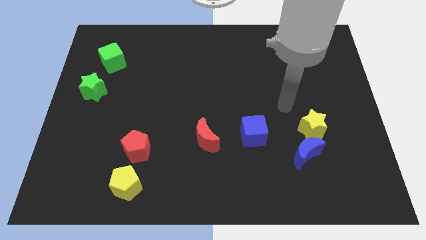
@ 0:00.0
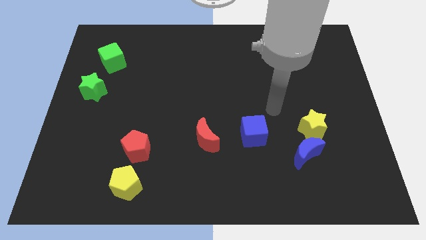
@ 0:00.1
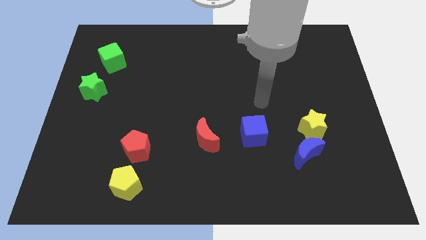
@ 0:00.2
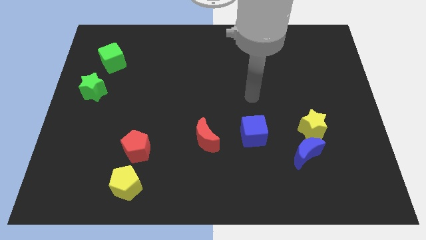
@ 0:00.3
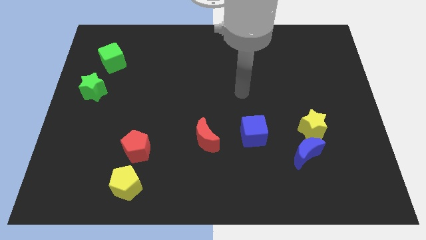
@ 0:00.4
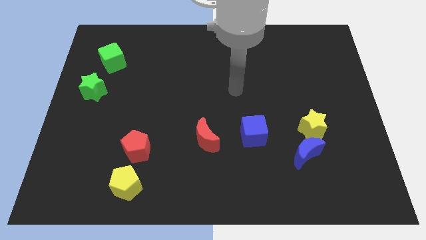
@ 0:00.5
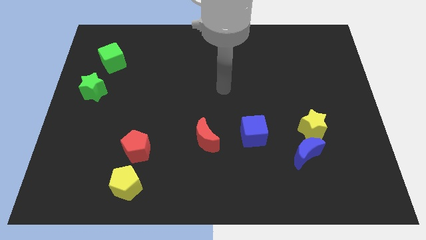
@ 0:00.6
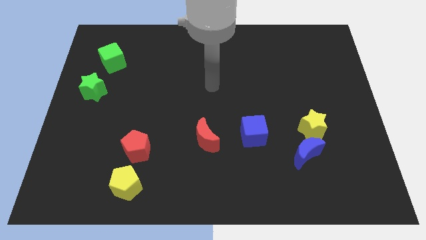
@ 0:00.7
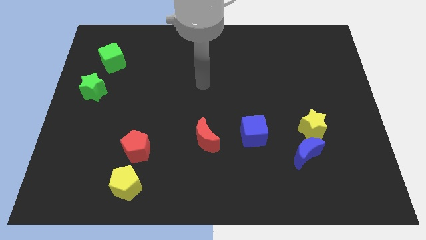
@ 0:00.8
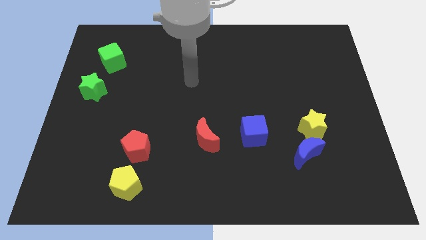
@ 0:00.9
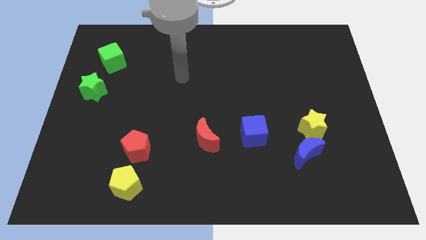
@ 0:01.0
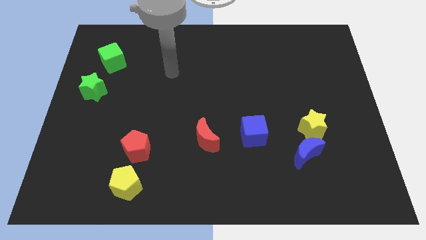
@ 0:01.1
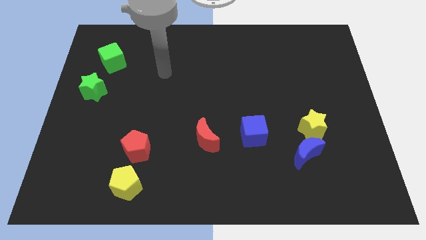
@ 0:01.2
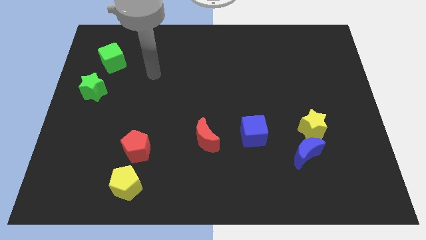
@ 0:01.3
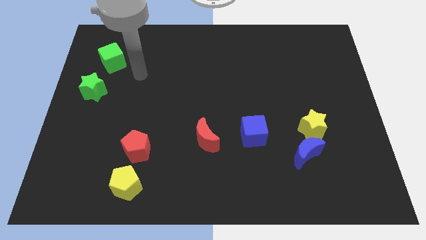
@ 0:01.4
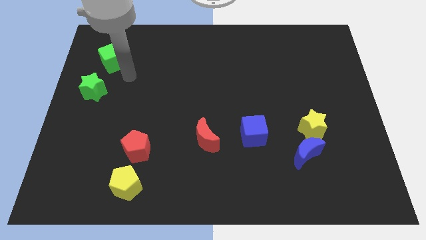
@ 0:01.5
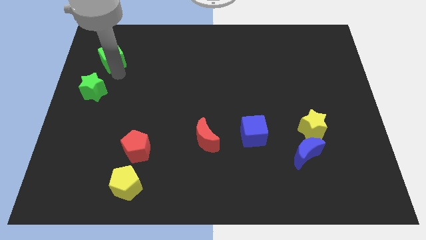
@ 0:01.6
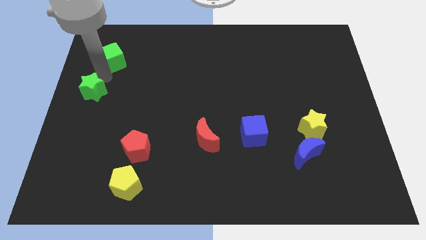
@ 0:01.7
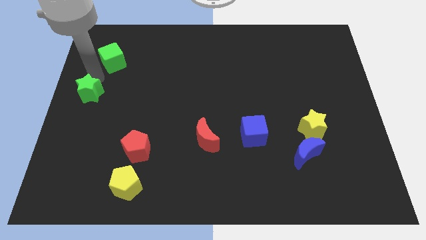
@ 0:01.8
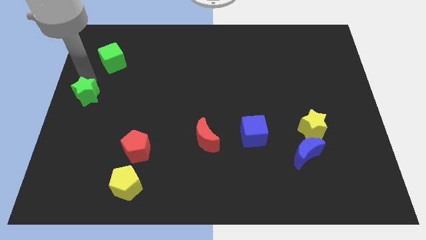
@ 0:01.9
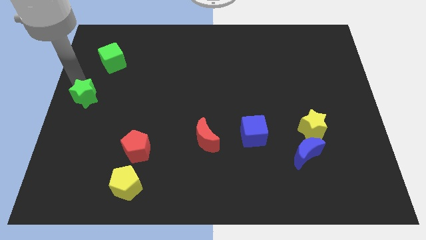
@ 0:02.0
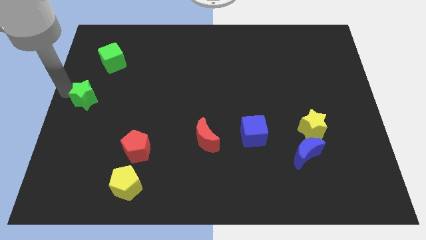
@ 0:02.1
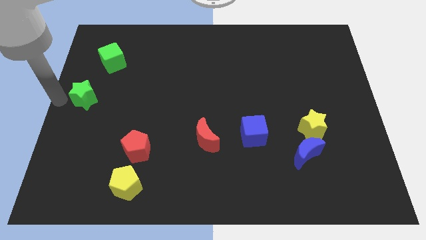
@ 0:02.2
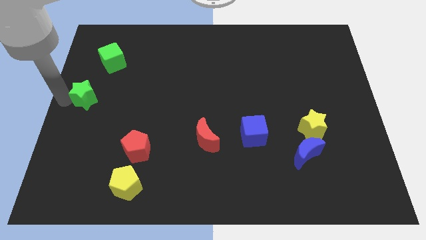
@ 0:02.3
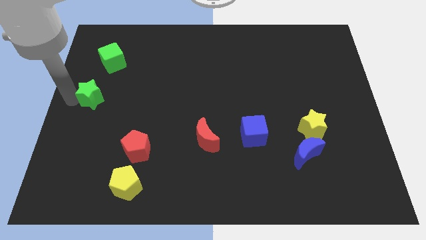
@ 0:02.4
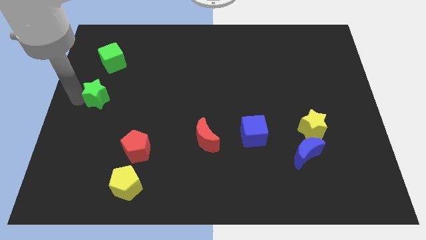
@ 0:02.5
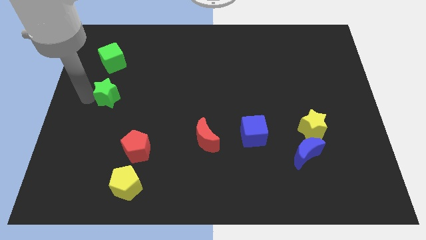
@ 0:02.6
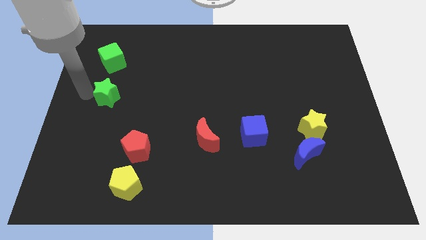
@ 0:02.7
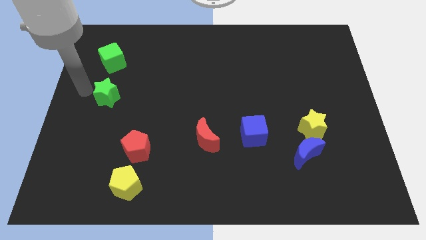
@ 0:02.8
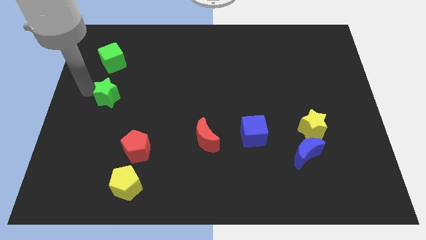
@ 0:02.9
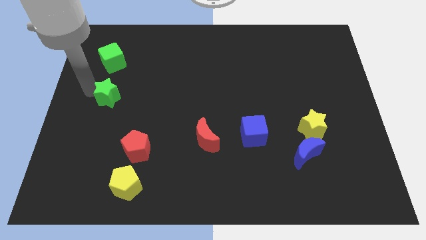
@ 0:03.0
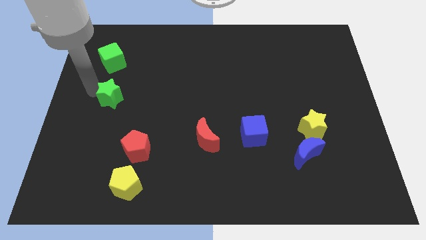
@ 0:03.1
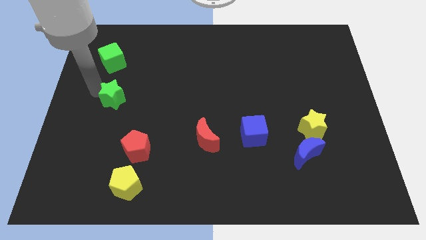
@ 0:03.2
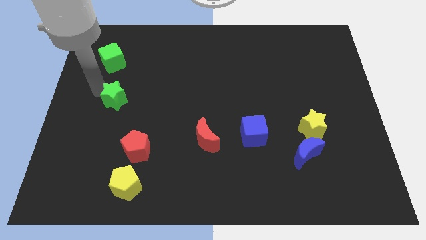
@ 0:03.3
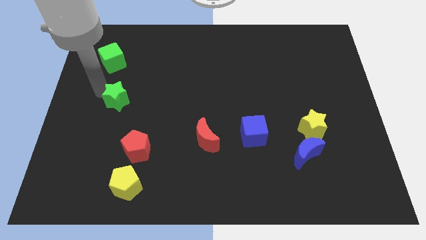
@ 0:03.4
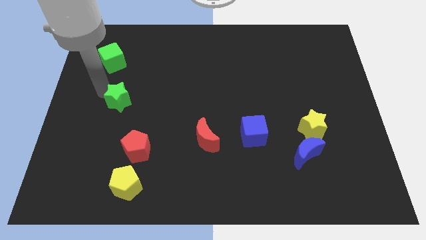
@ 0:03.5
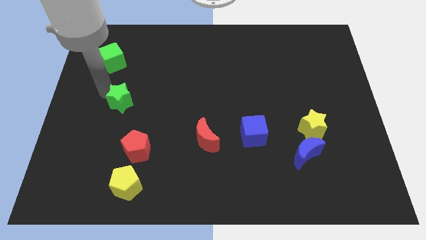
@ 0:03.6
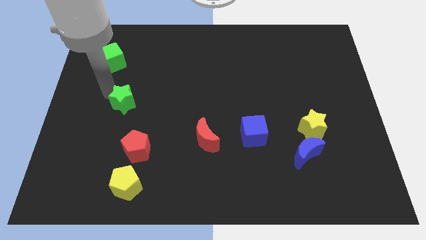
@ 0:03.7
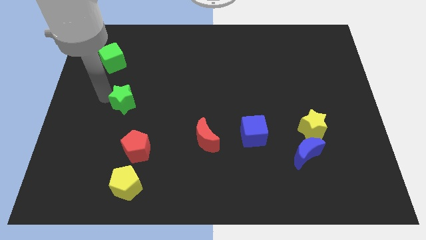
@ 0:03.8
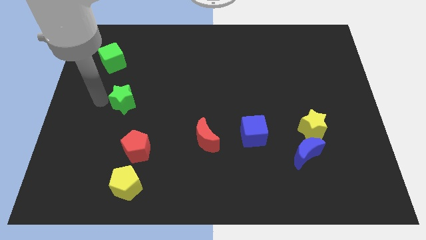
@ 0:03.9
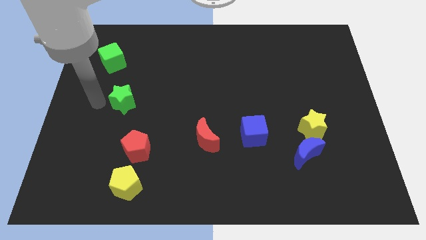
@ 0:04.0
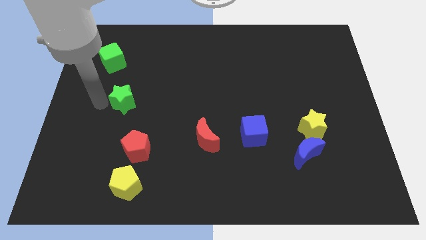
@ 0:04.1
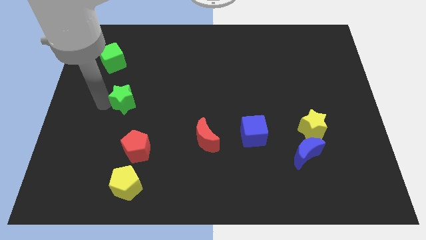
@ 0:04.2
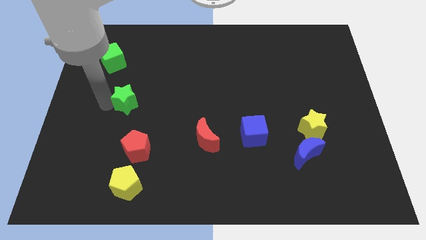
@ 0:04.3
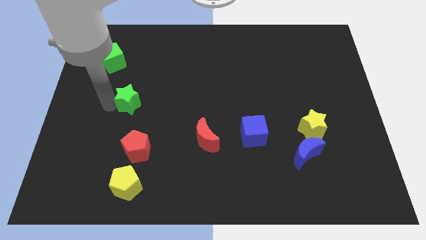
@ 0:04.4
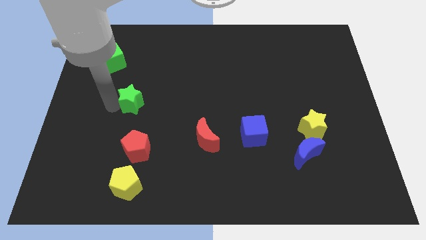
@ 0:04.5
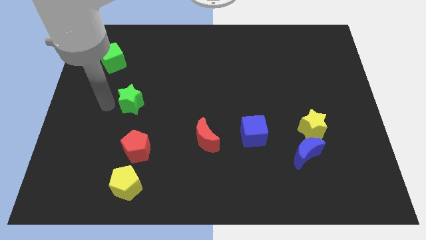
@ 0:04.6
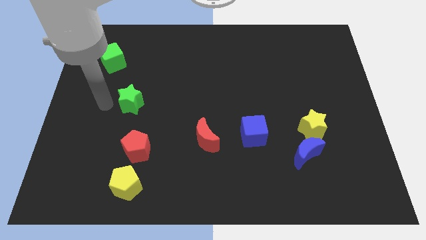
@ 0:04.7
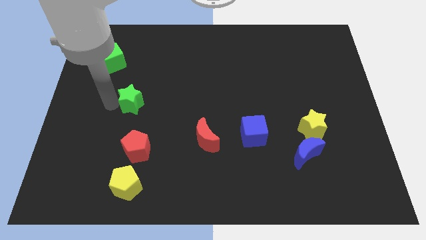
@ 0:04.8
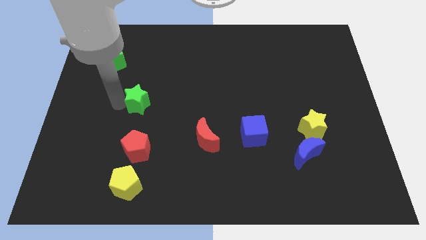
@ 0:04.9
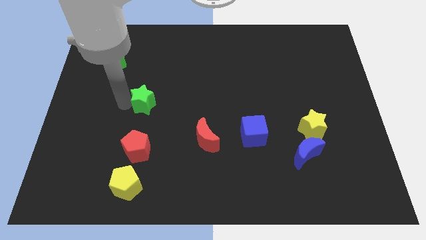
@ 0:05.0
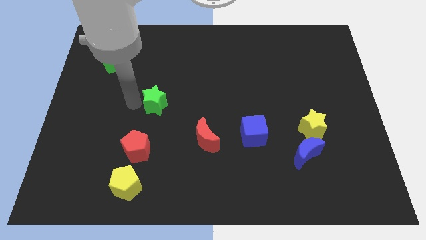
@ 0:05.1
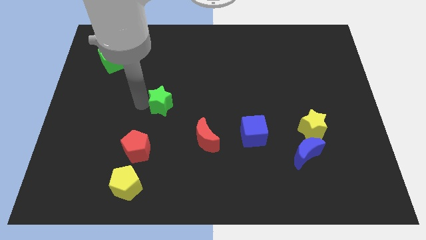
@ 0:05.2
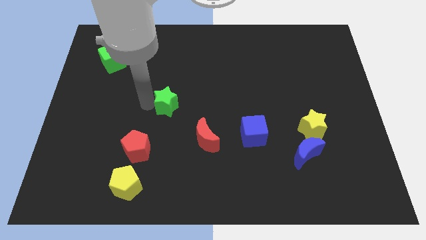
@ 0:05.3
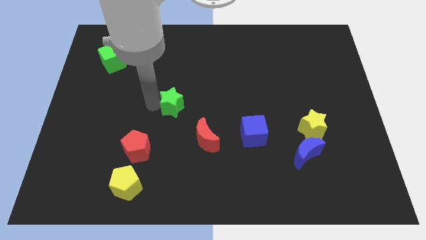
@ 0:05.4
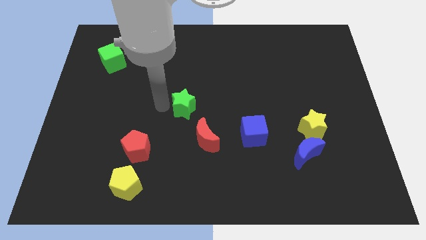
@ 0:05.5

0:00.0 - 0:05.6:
push the green star above the red moon

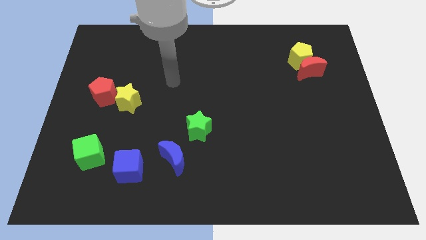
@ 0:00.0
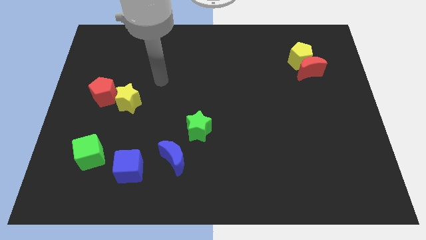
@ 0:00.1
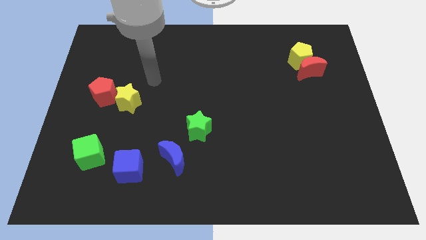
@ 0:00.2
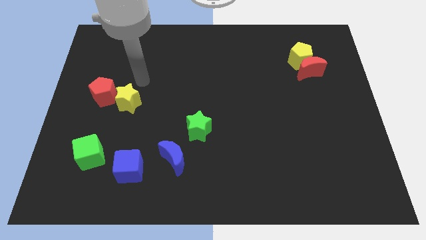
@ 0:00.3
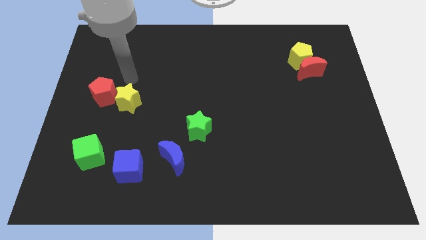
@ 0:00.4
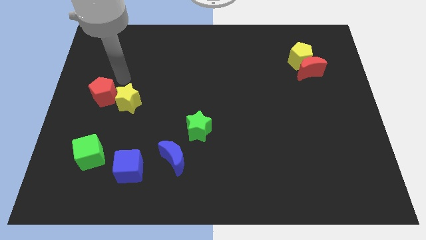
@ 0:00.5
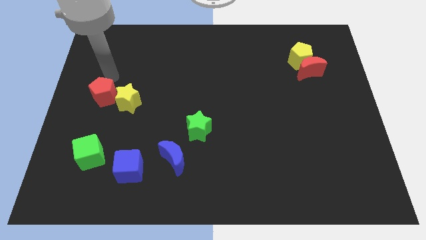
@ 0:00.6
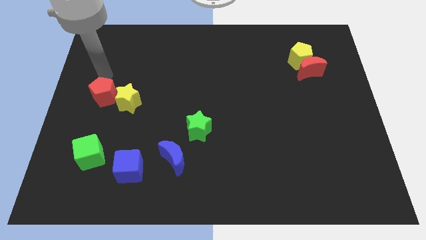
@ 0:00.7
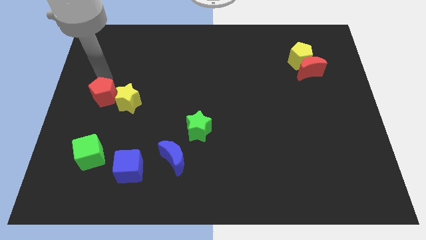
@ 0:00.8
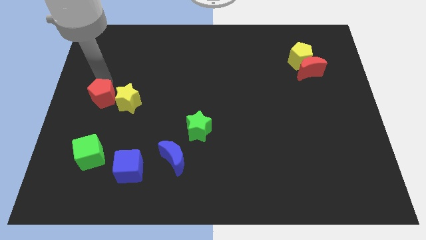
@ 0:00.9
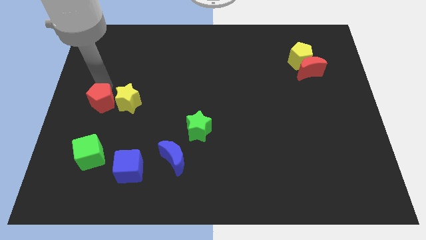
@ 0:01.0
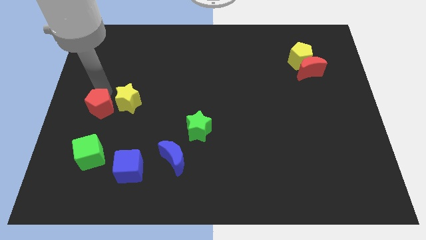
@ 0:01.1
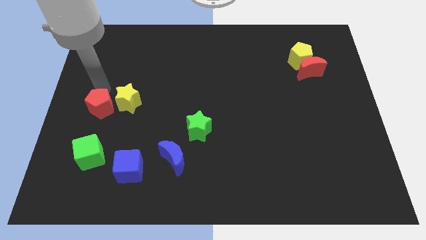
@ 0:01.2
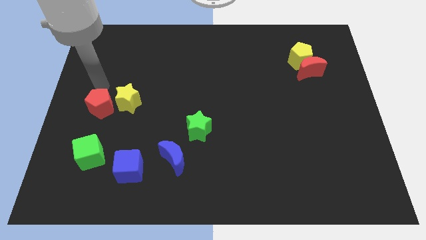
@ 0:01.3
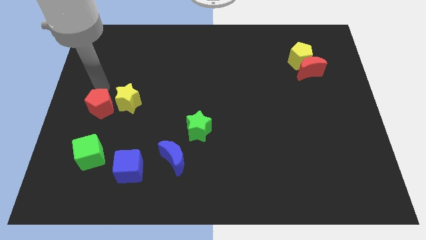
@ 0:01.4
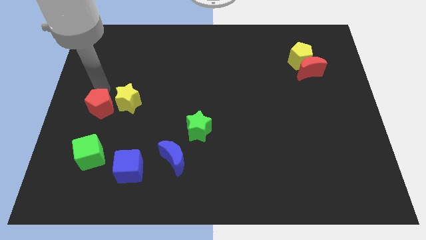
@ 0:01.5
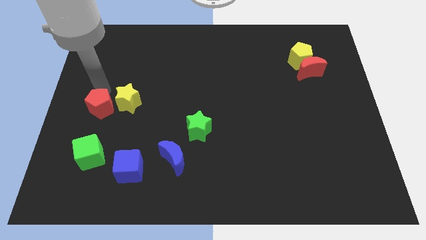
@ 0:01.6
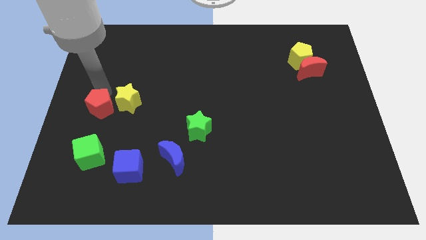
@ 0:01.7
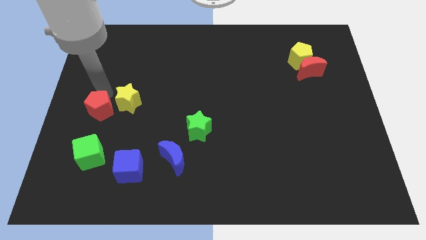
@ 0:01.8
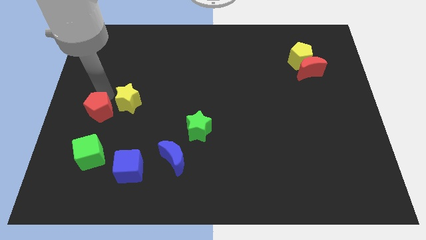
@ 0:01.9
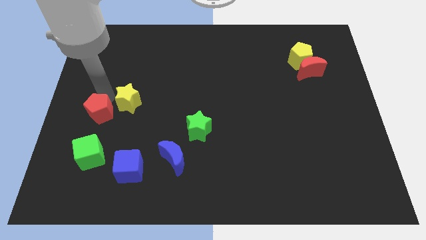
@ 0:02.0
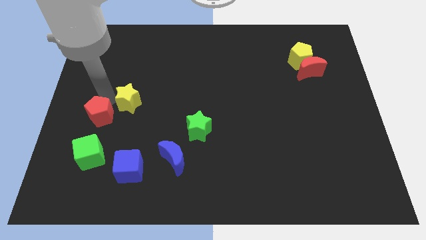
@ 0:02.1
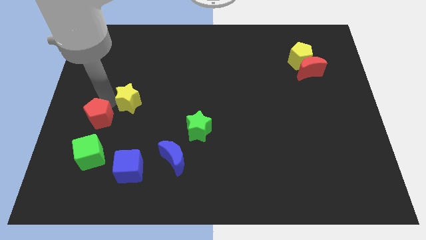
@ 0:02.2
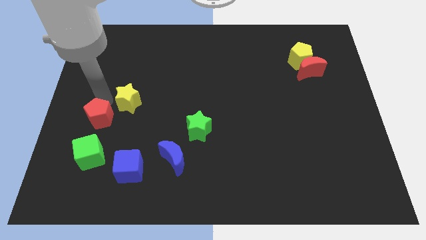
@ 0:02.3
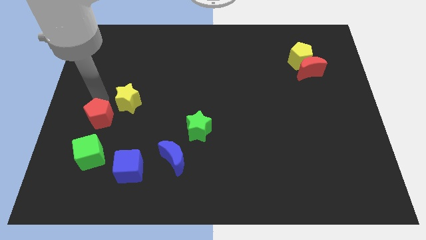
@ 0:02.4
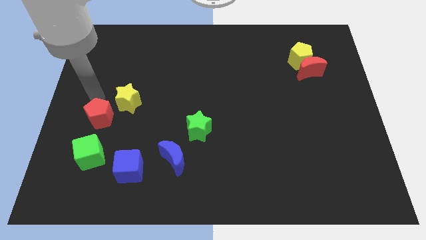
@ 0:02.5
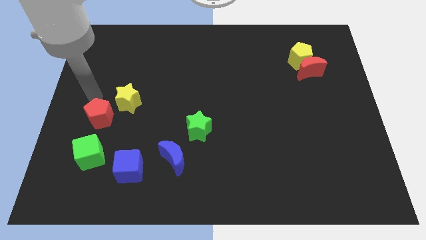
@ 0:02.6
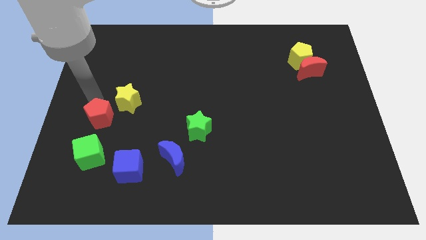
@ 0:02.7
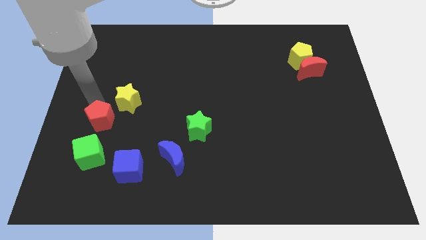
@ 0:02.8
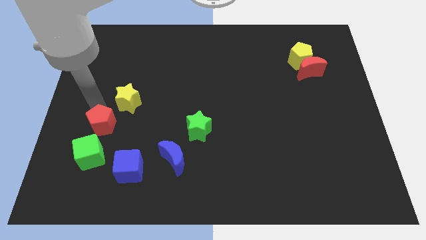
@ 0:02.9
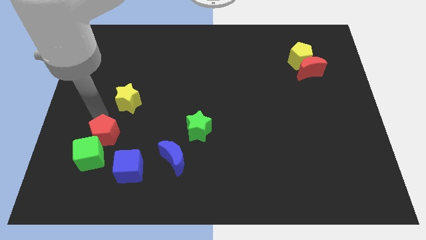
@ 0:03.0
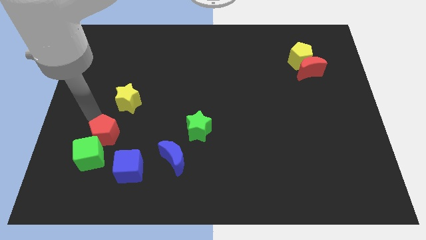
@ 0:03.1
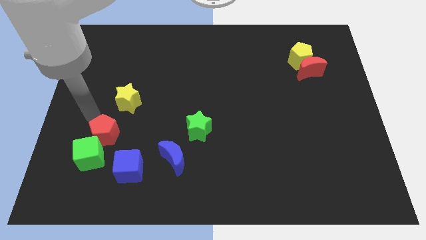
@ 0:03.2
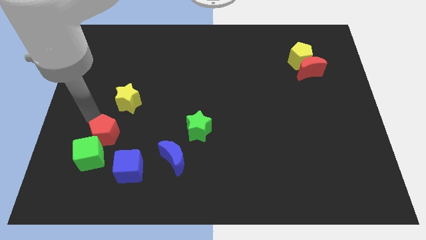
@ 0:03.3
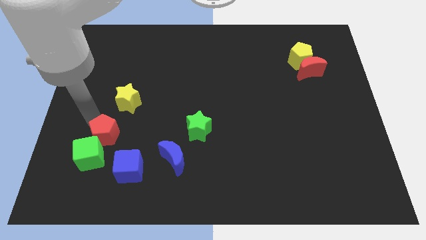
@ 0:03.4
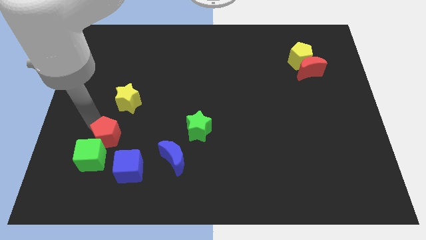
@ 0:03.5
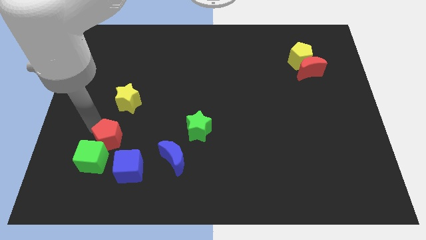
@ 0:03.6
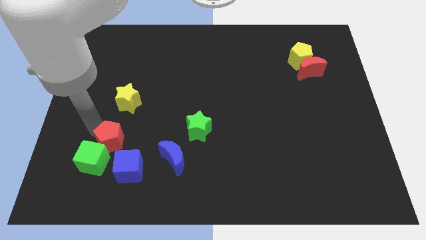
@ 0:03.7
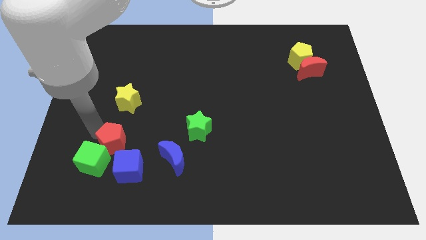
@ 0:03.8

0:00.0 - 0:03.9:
move the red pentagon to the left side of the blue moon
